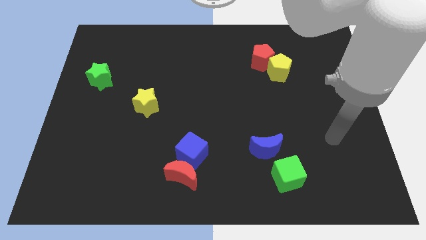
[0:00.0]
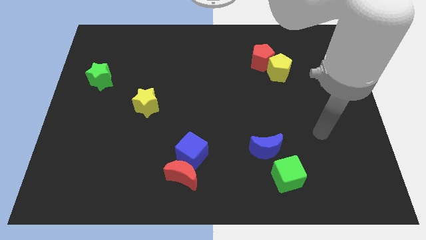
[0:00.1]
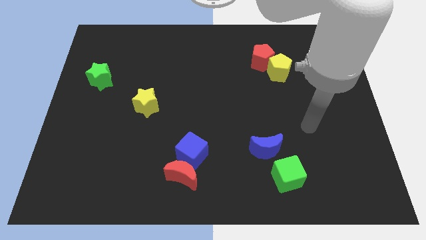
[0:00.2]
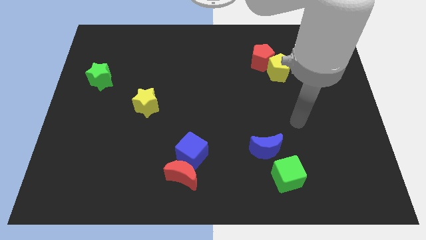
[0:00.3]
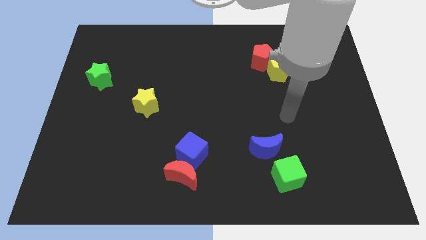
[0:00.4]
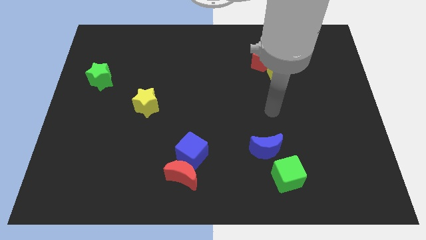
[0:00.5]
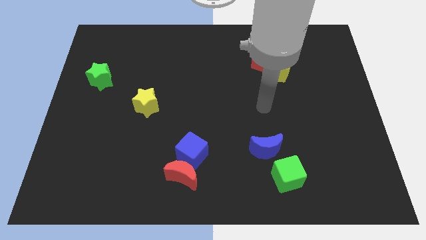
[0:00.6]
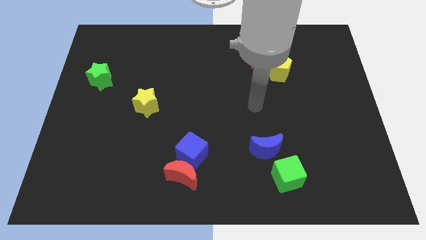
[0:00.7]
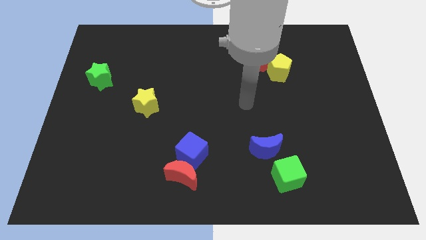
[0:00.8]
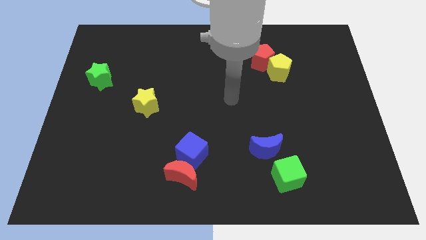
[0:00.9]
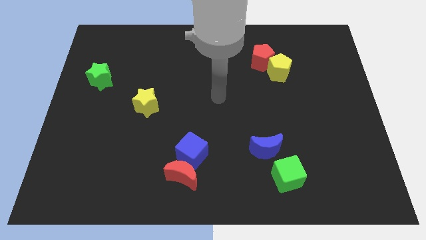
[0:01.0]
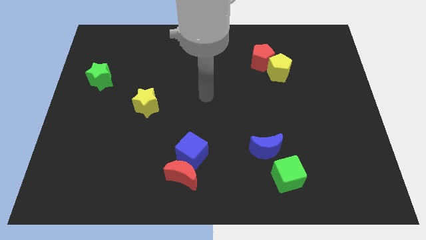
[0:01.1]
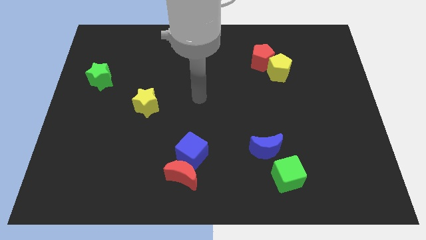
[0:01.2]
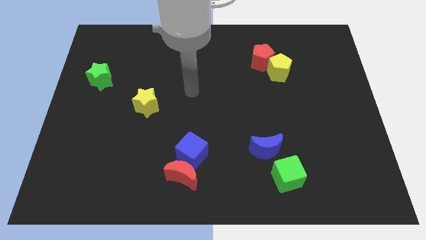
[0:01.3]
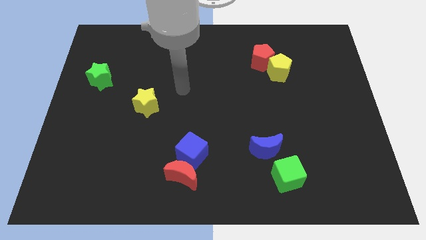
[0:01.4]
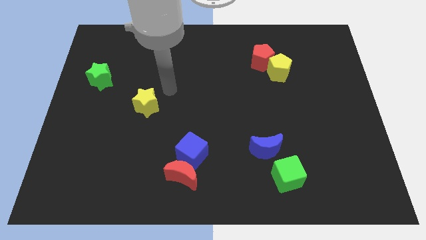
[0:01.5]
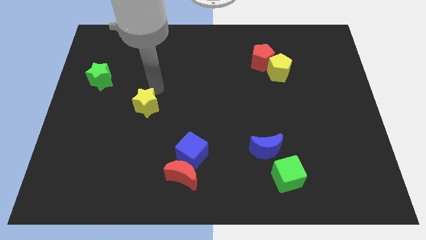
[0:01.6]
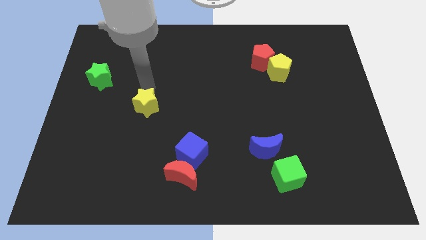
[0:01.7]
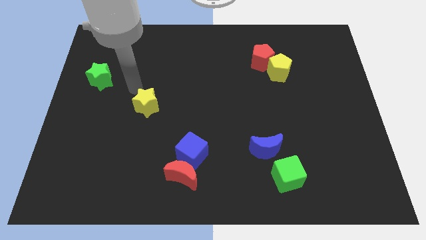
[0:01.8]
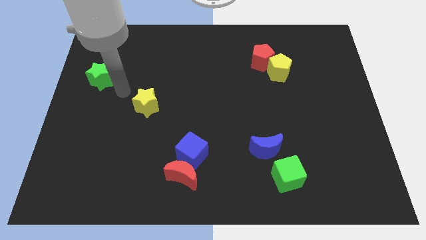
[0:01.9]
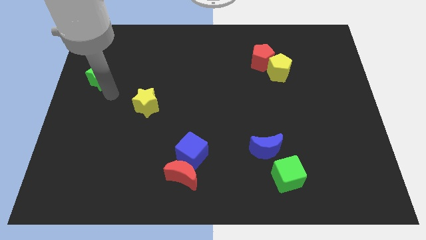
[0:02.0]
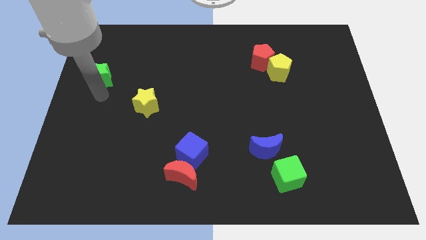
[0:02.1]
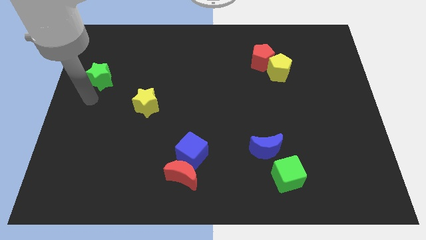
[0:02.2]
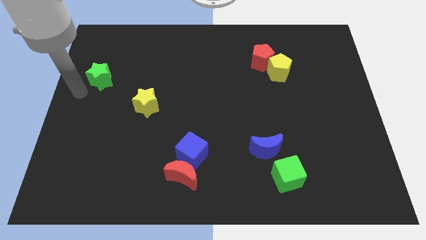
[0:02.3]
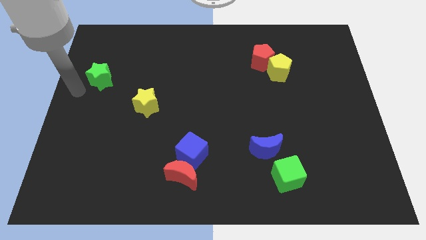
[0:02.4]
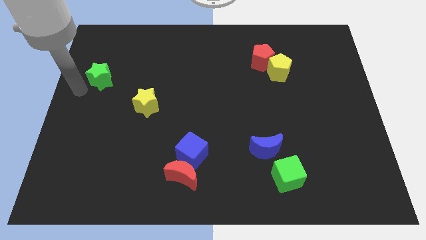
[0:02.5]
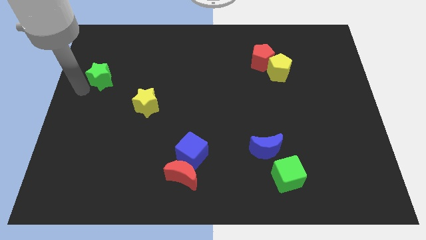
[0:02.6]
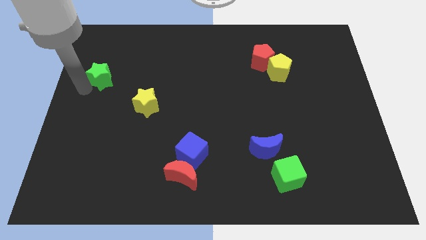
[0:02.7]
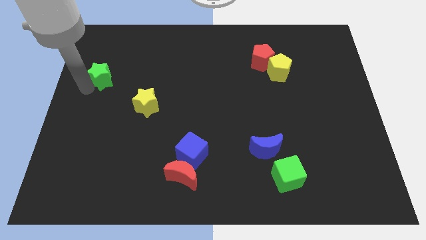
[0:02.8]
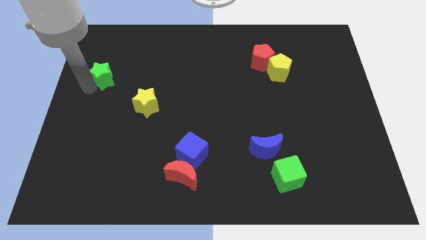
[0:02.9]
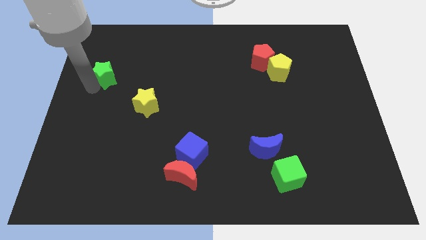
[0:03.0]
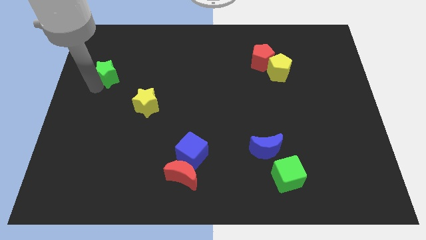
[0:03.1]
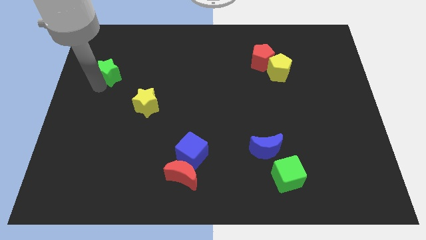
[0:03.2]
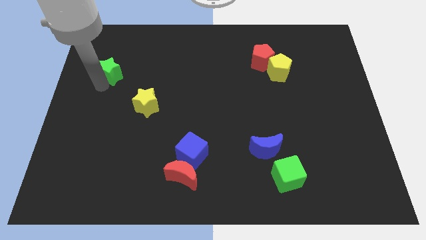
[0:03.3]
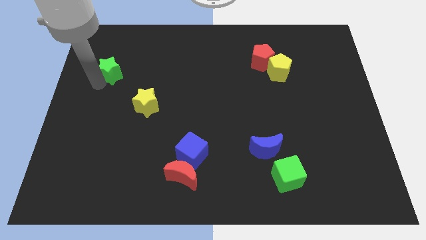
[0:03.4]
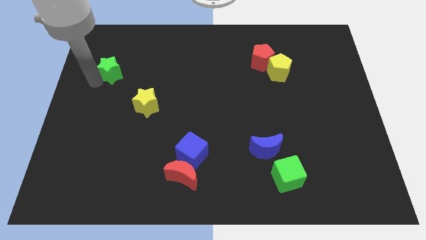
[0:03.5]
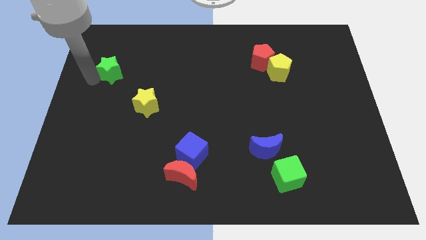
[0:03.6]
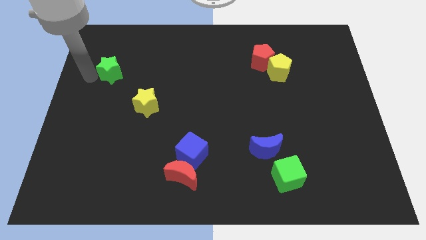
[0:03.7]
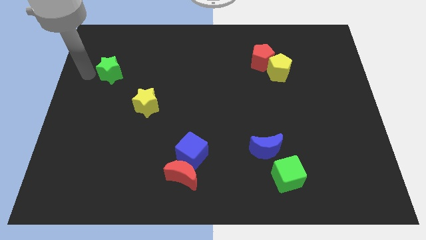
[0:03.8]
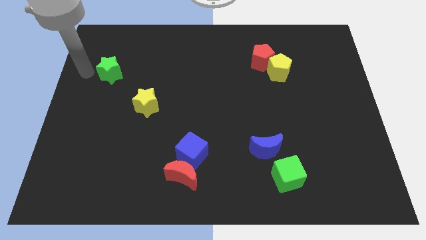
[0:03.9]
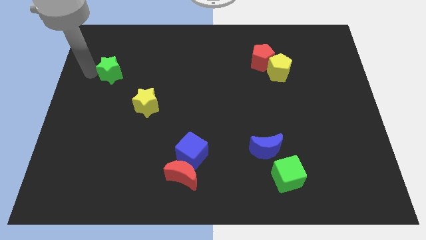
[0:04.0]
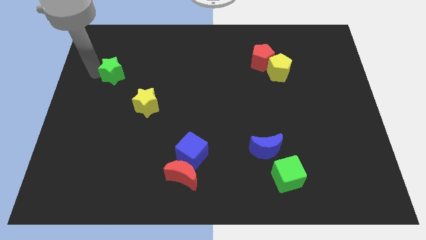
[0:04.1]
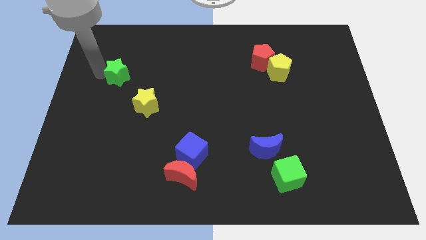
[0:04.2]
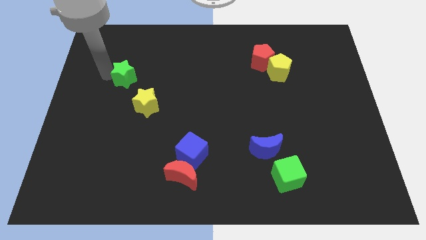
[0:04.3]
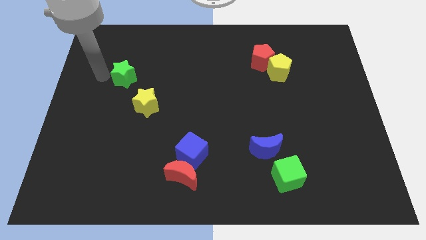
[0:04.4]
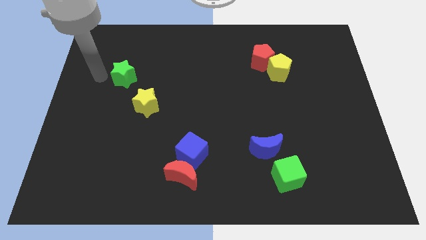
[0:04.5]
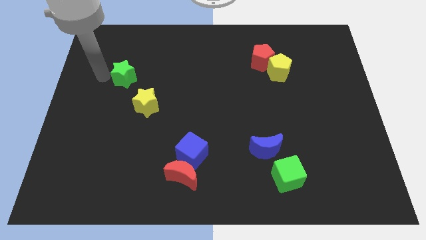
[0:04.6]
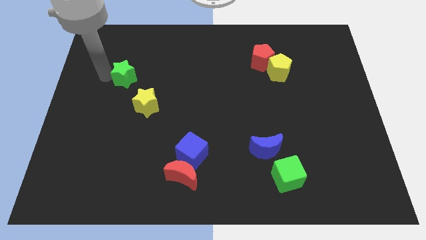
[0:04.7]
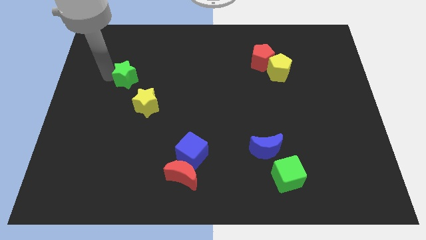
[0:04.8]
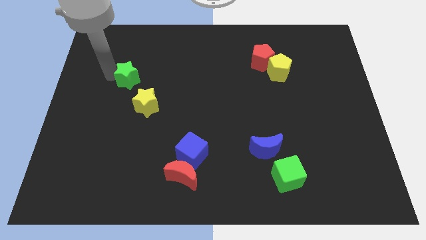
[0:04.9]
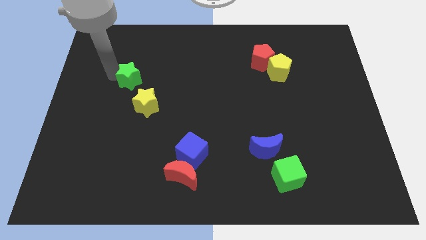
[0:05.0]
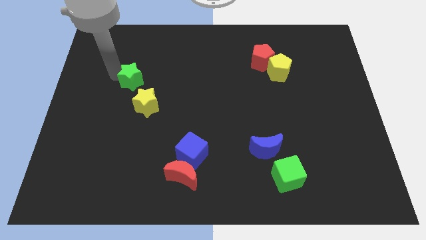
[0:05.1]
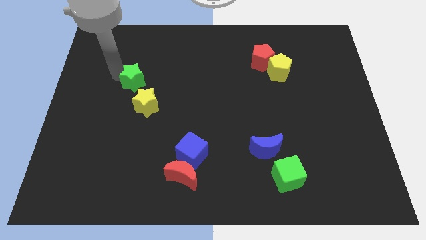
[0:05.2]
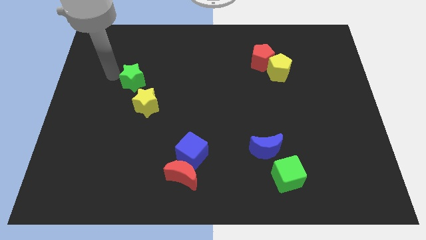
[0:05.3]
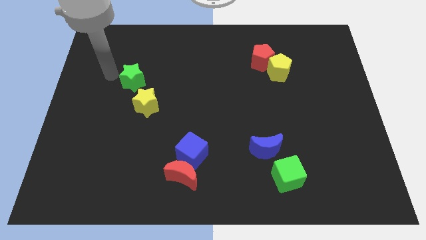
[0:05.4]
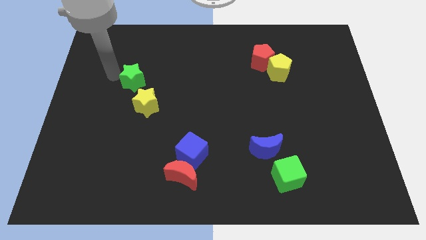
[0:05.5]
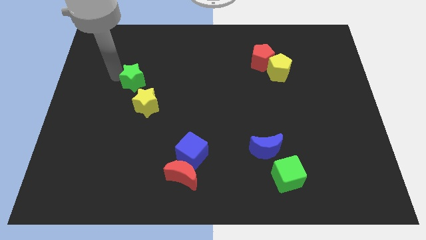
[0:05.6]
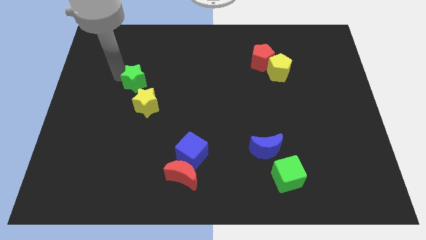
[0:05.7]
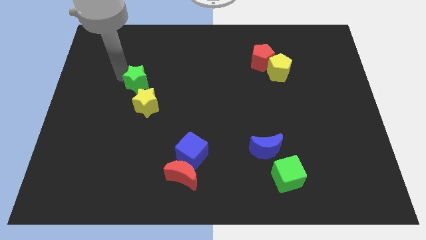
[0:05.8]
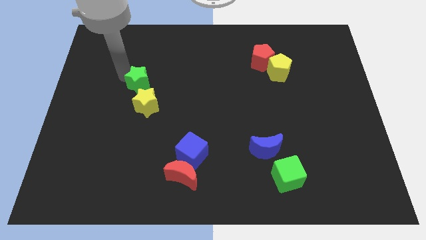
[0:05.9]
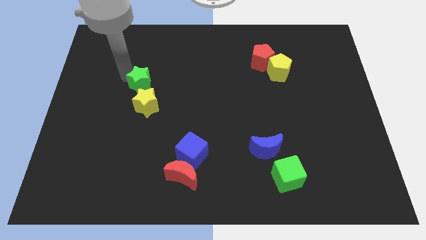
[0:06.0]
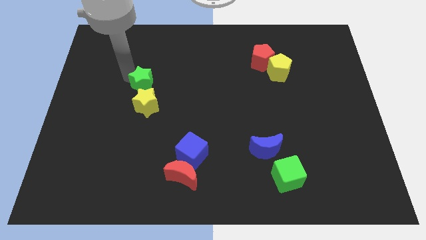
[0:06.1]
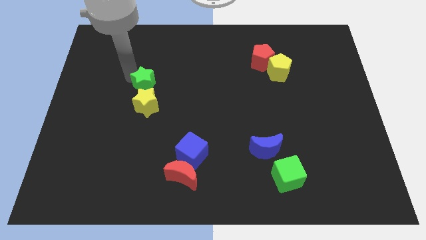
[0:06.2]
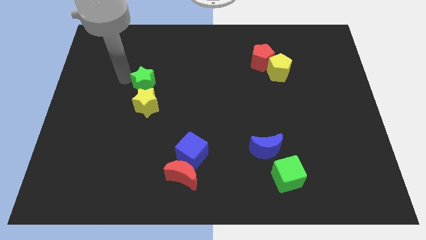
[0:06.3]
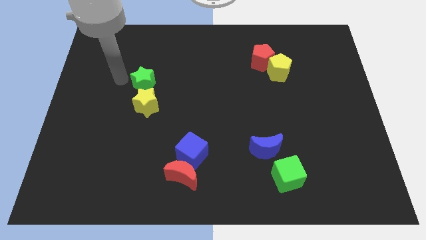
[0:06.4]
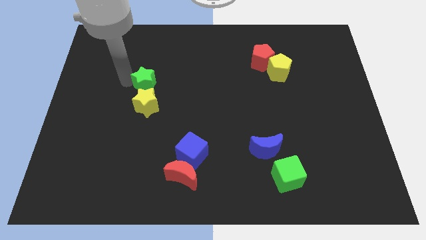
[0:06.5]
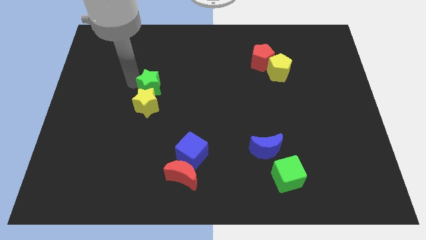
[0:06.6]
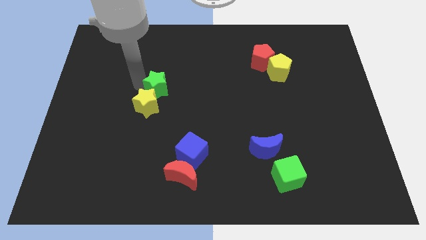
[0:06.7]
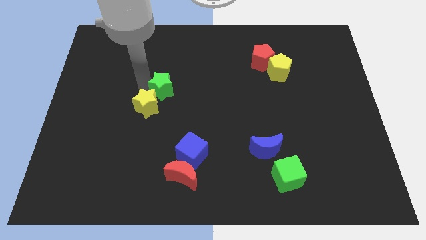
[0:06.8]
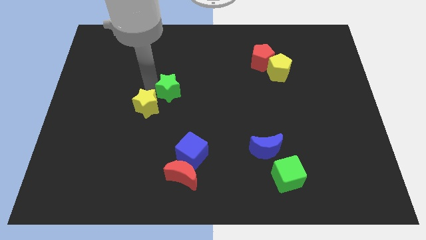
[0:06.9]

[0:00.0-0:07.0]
move the green star to the center of the board
